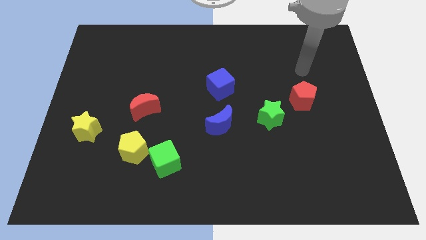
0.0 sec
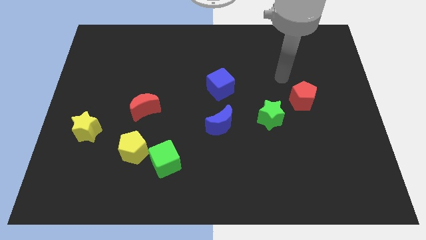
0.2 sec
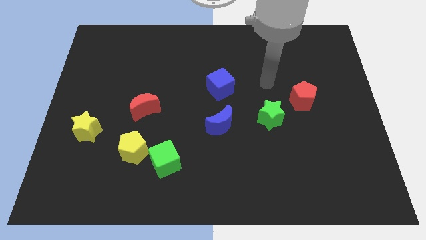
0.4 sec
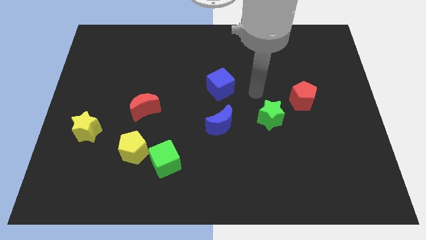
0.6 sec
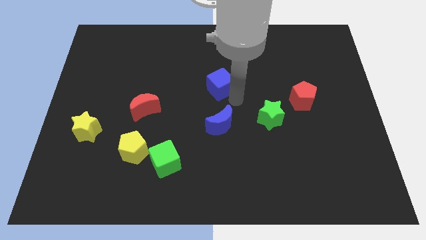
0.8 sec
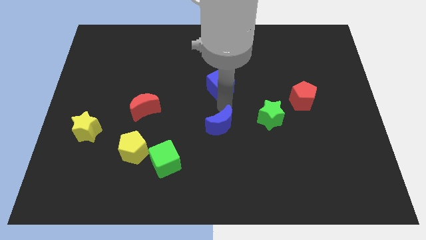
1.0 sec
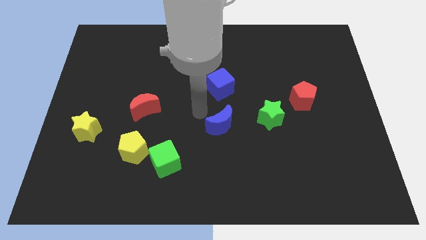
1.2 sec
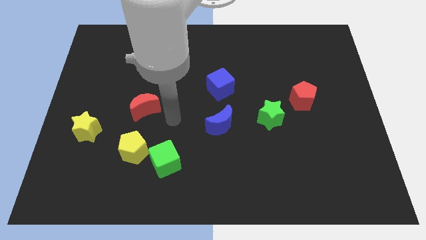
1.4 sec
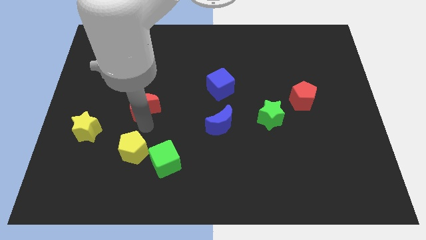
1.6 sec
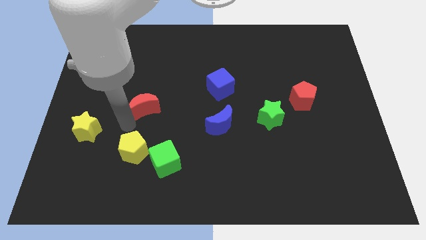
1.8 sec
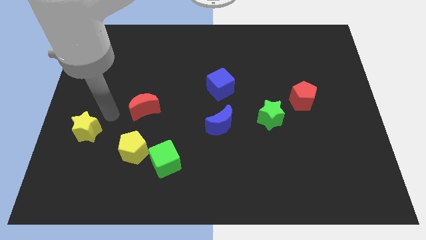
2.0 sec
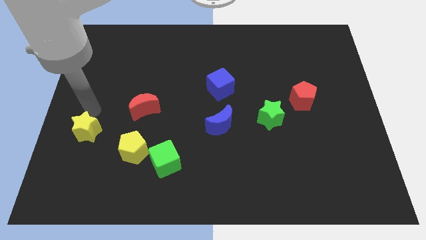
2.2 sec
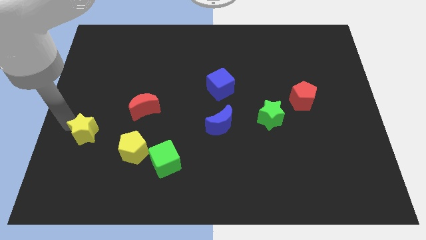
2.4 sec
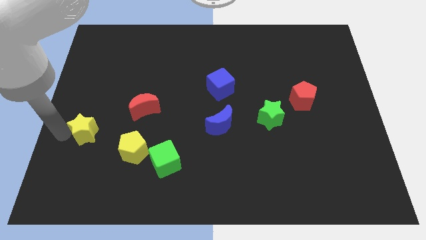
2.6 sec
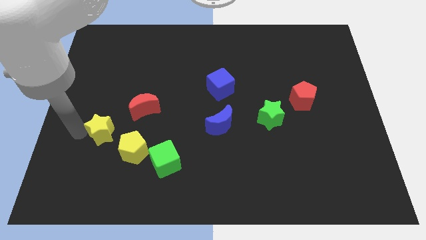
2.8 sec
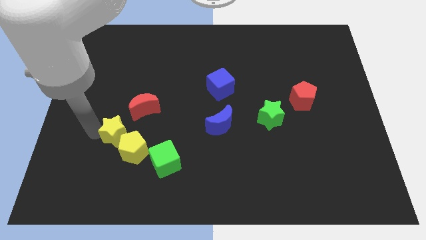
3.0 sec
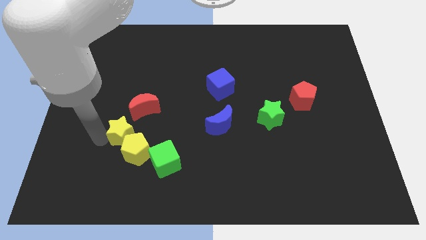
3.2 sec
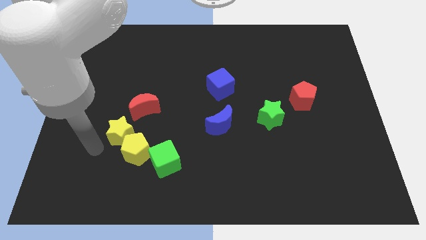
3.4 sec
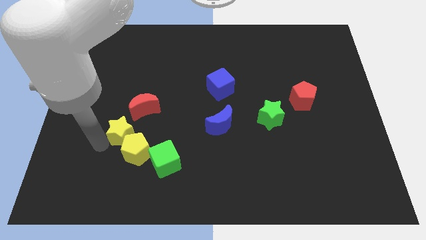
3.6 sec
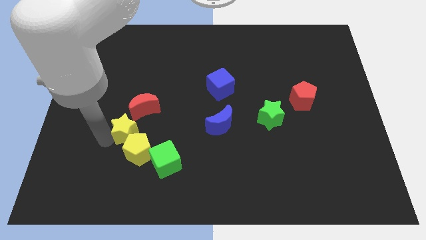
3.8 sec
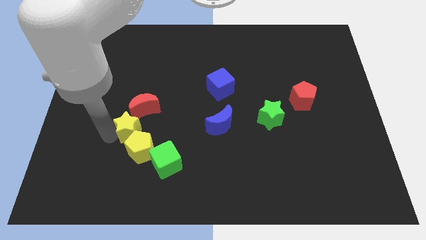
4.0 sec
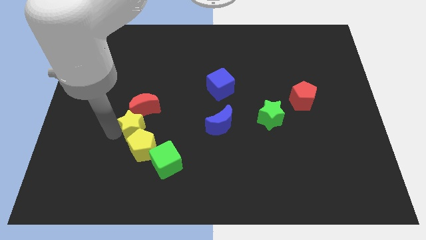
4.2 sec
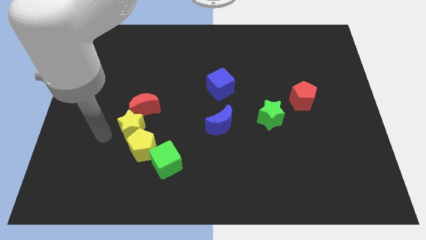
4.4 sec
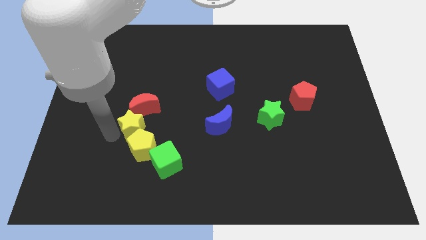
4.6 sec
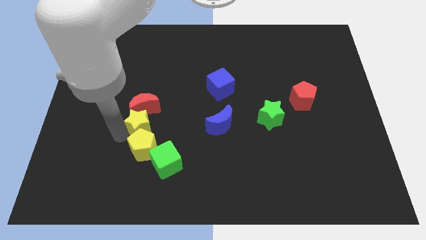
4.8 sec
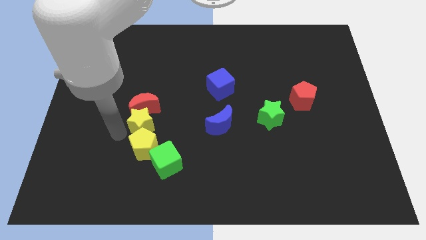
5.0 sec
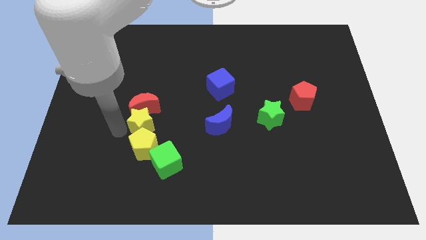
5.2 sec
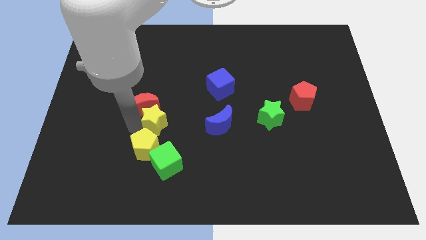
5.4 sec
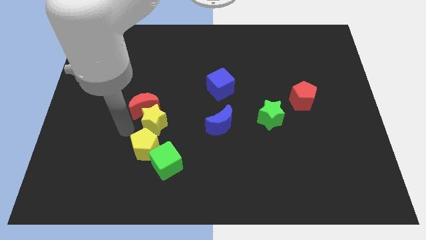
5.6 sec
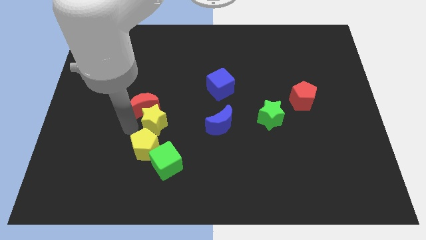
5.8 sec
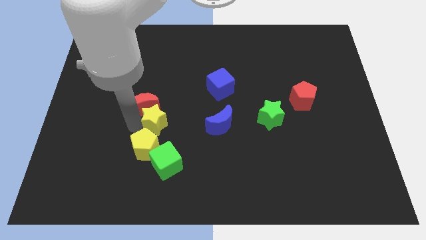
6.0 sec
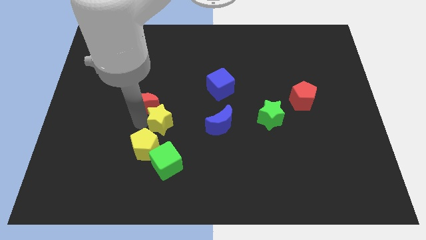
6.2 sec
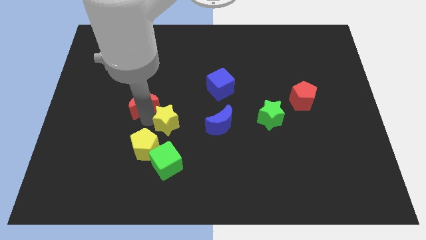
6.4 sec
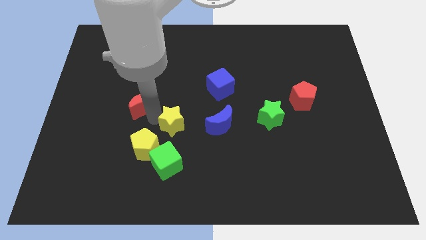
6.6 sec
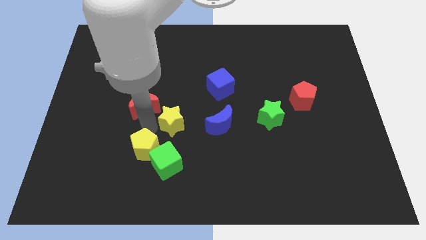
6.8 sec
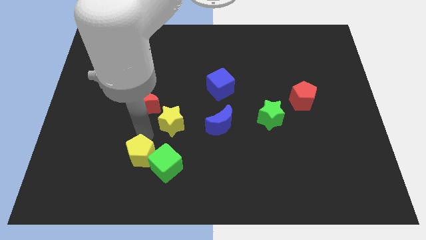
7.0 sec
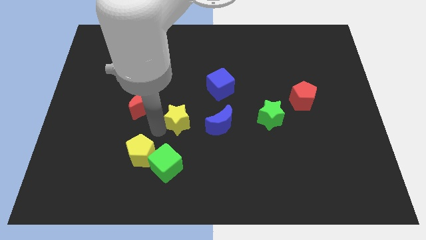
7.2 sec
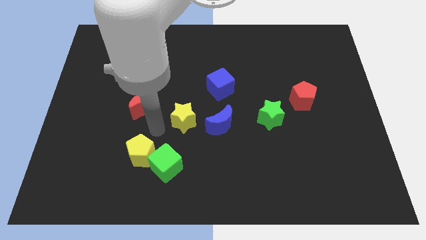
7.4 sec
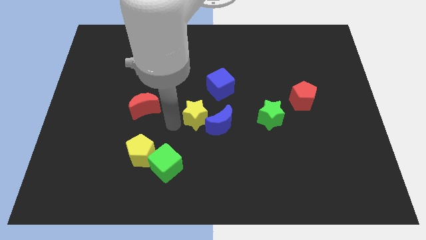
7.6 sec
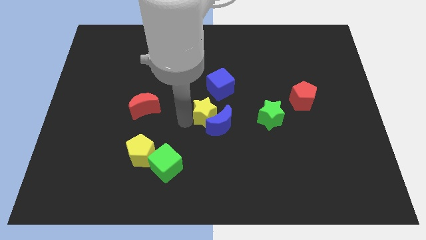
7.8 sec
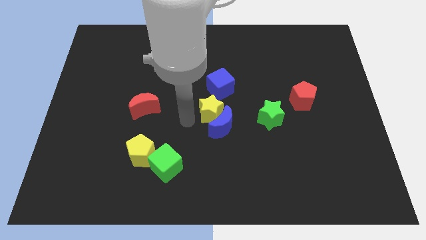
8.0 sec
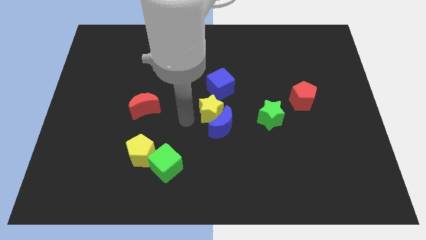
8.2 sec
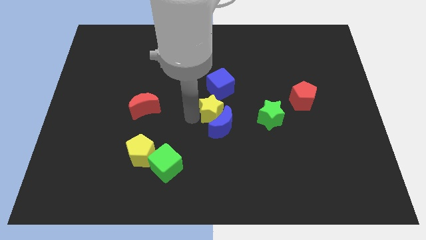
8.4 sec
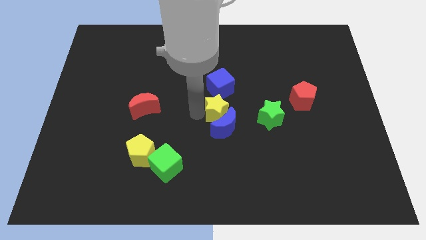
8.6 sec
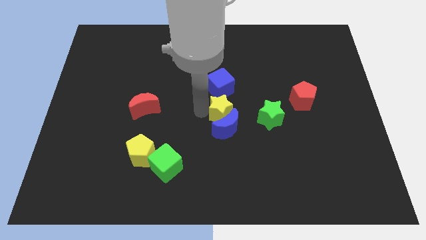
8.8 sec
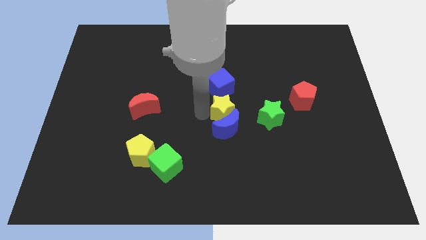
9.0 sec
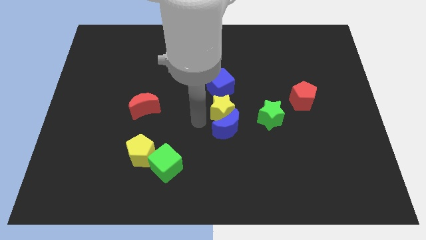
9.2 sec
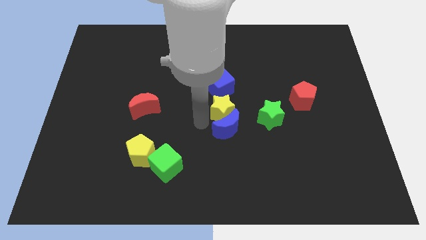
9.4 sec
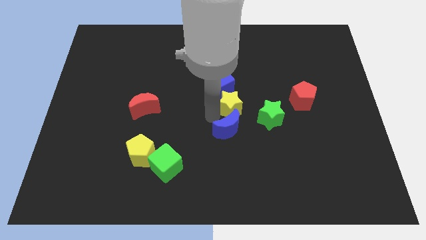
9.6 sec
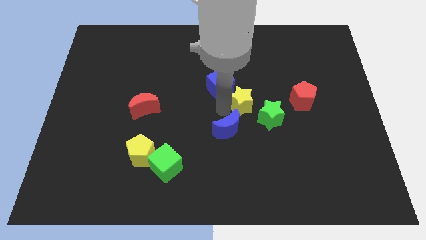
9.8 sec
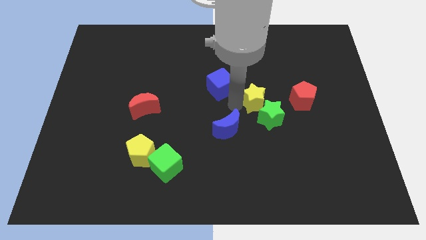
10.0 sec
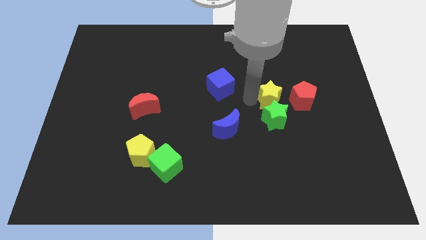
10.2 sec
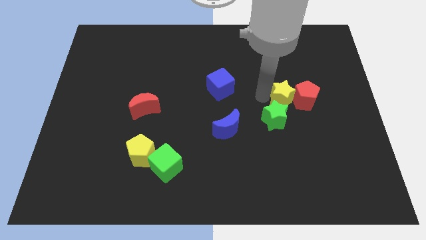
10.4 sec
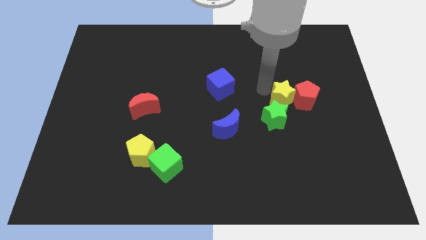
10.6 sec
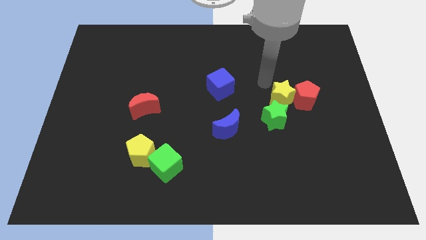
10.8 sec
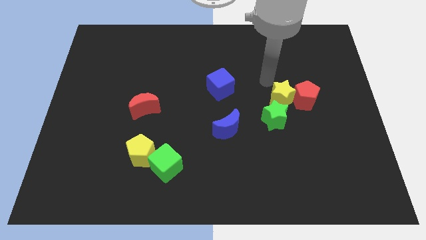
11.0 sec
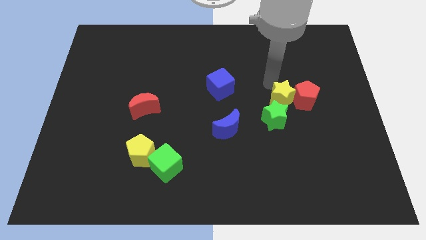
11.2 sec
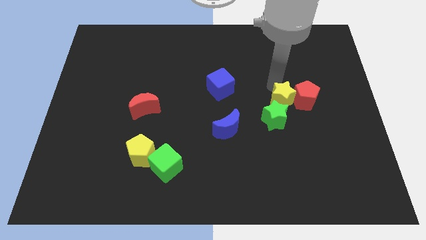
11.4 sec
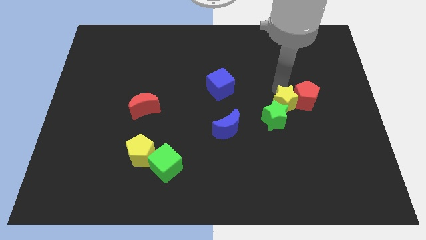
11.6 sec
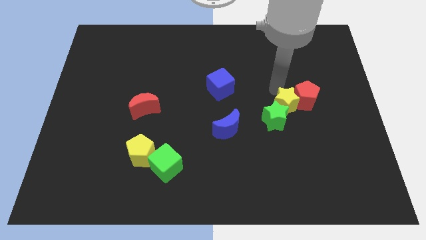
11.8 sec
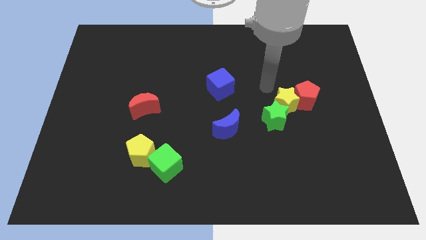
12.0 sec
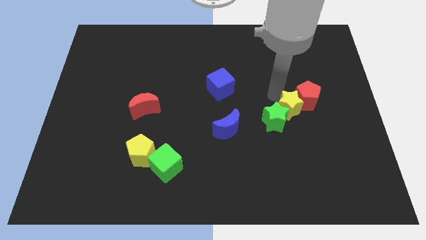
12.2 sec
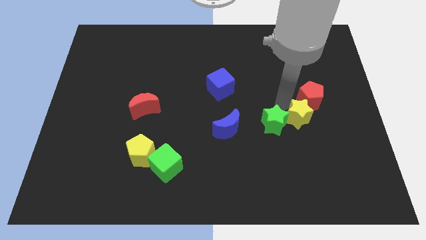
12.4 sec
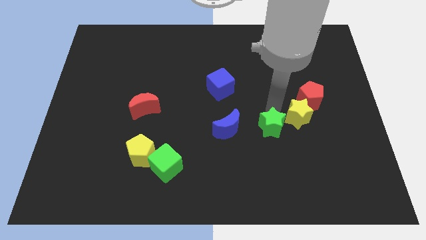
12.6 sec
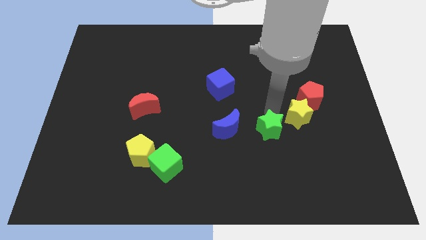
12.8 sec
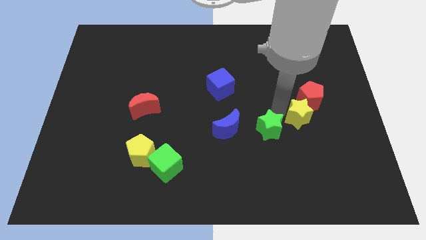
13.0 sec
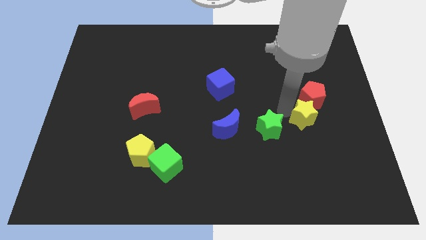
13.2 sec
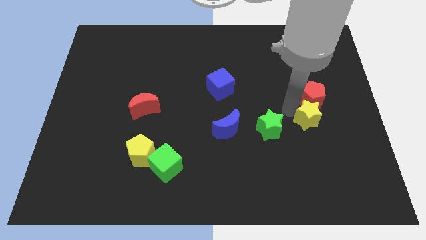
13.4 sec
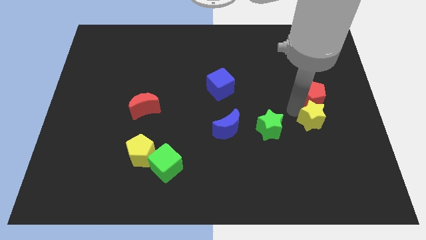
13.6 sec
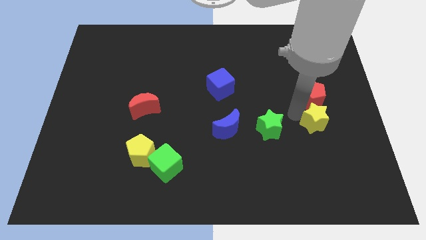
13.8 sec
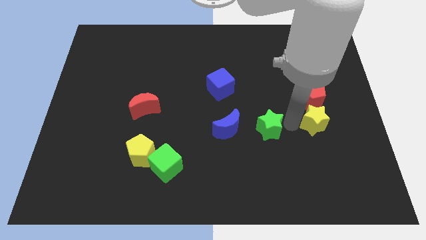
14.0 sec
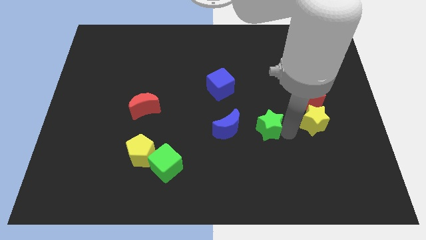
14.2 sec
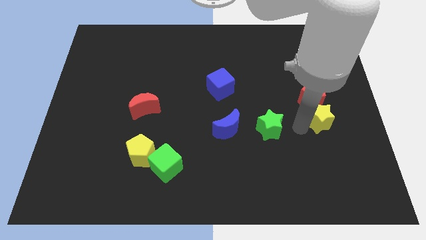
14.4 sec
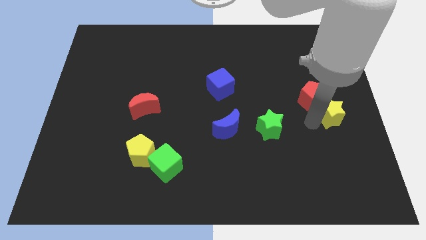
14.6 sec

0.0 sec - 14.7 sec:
put the yellow star to the center right
